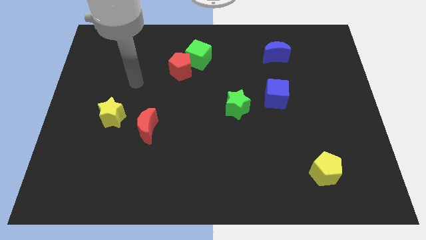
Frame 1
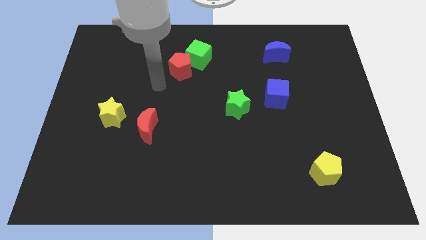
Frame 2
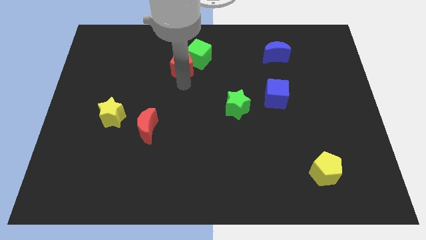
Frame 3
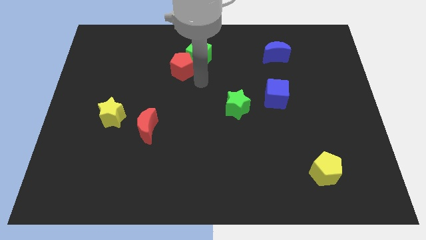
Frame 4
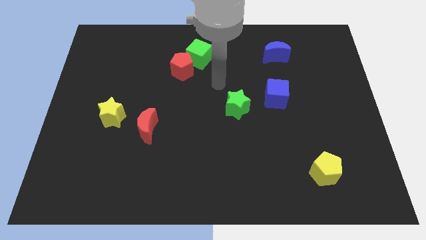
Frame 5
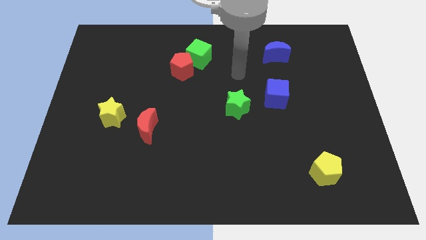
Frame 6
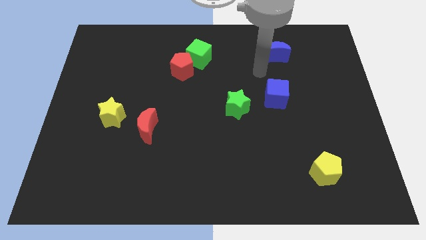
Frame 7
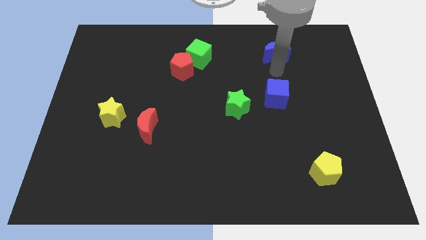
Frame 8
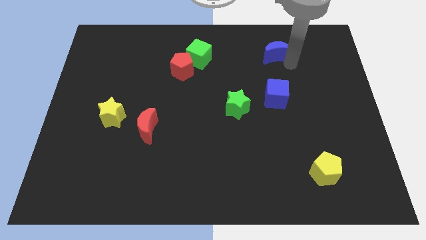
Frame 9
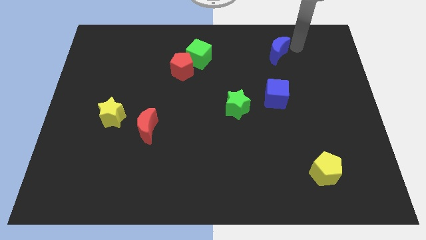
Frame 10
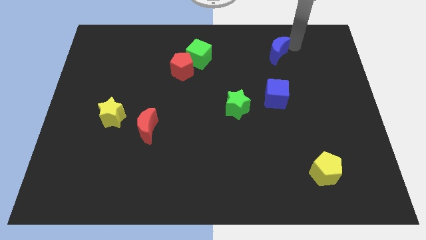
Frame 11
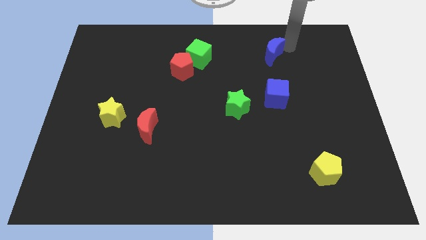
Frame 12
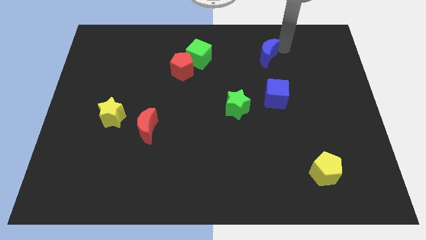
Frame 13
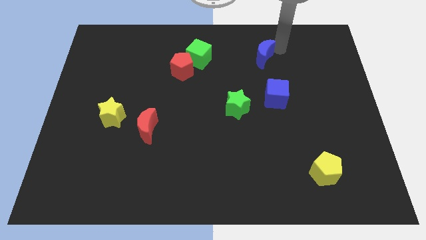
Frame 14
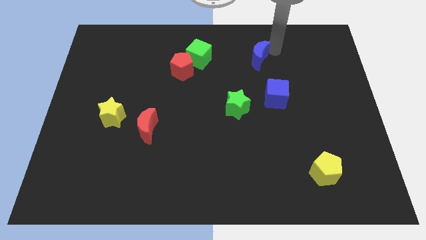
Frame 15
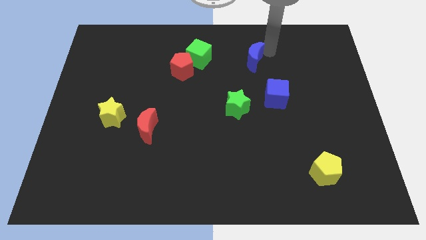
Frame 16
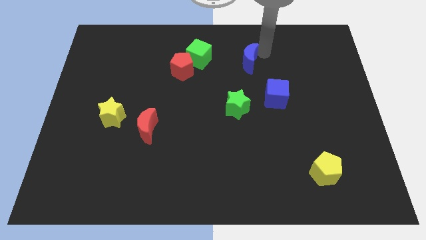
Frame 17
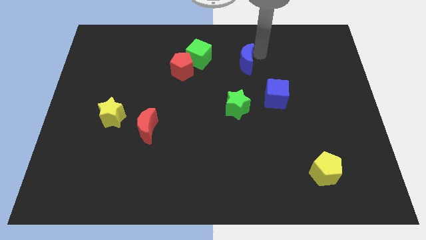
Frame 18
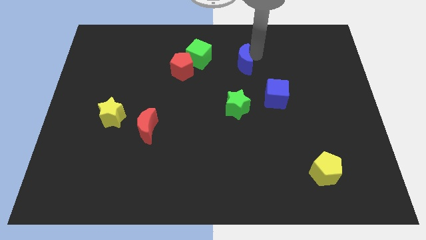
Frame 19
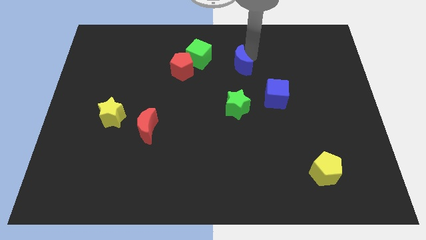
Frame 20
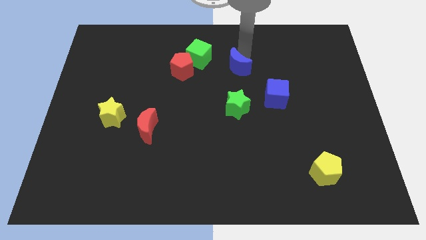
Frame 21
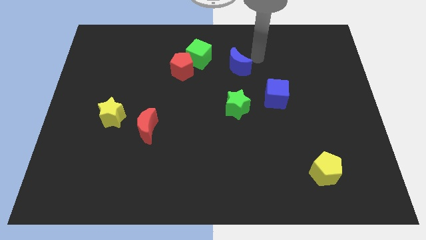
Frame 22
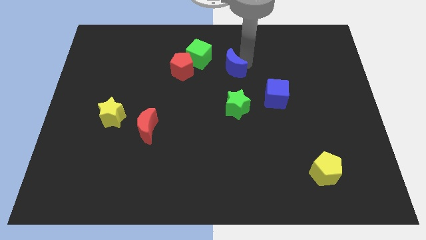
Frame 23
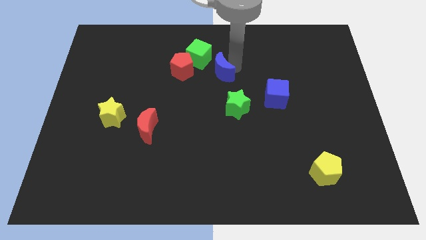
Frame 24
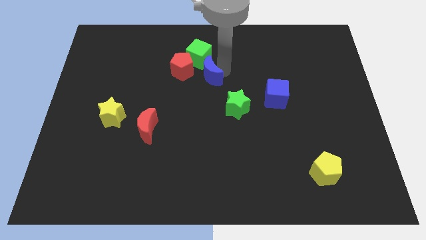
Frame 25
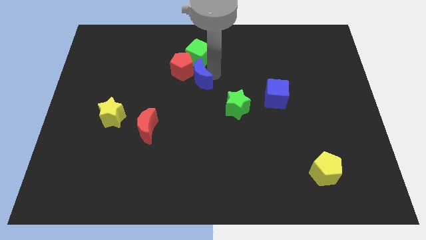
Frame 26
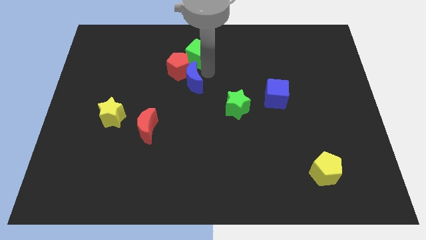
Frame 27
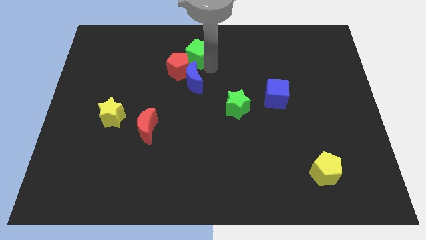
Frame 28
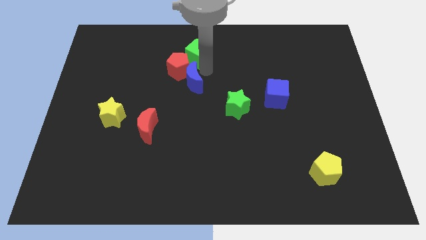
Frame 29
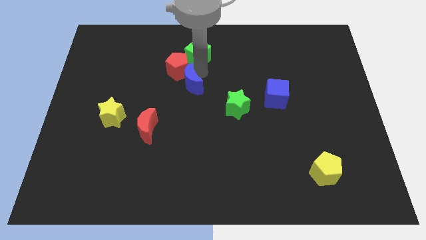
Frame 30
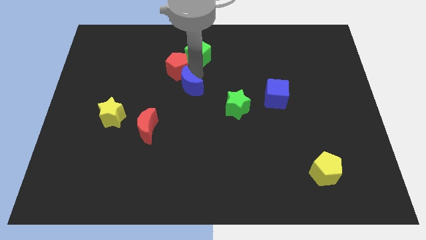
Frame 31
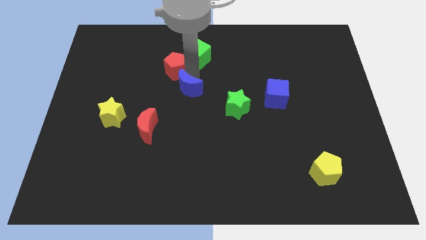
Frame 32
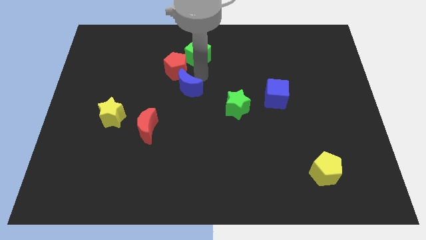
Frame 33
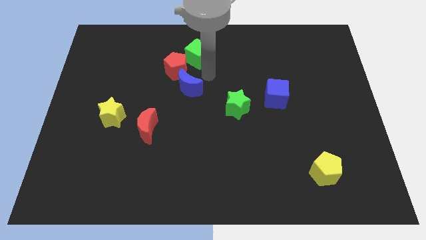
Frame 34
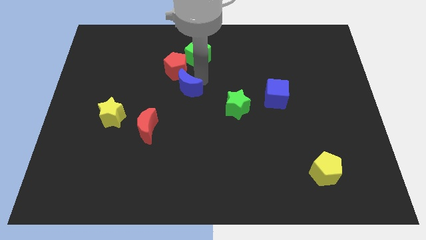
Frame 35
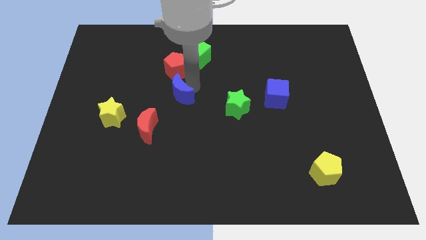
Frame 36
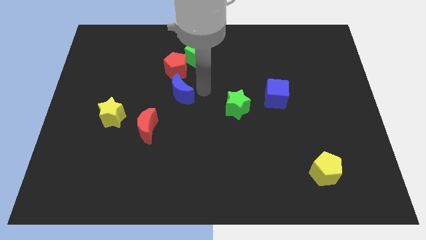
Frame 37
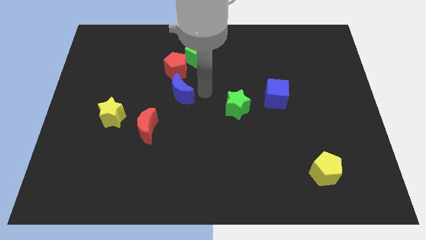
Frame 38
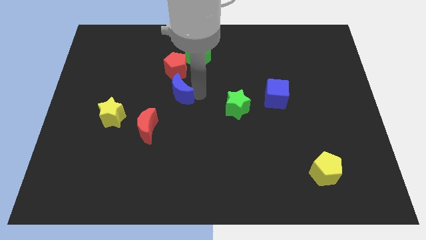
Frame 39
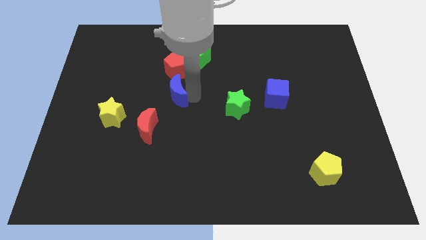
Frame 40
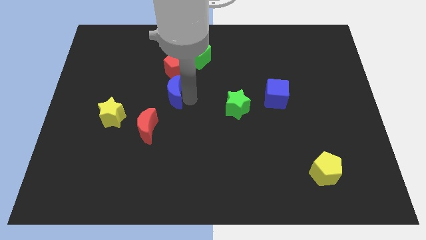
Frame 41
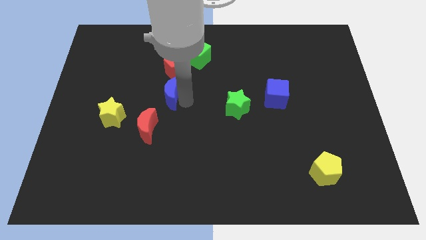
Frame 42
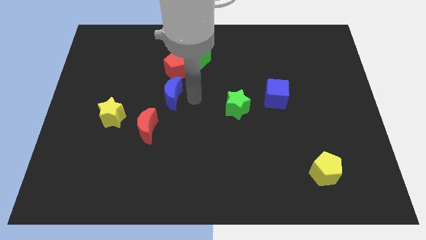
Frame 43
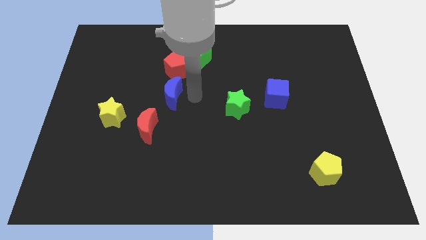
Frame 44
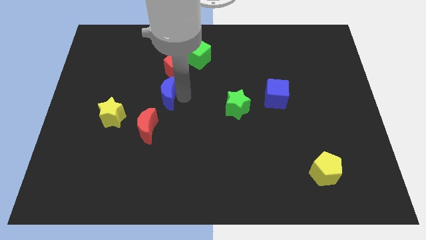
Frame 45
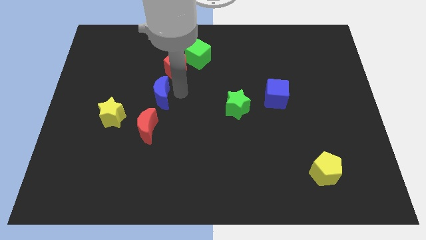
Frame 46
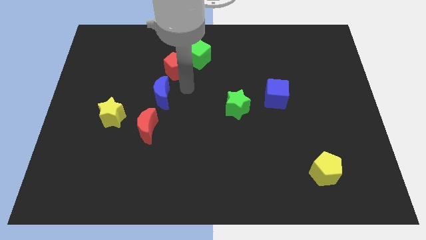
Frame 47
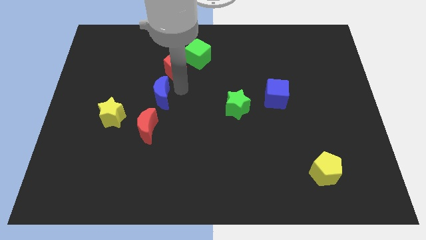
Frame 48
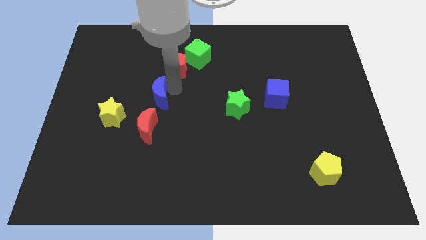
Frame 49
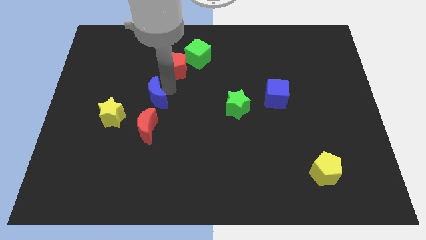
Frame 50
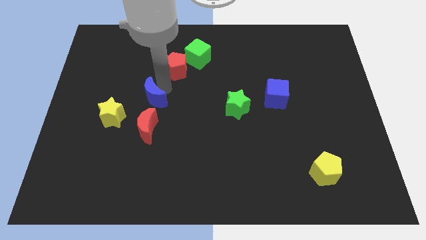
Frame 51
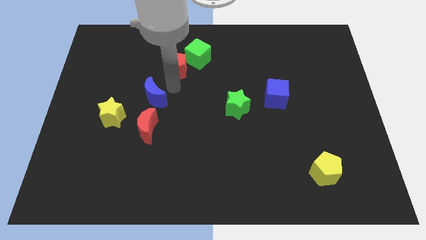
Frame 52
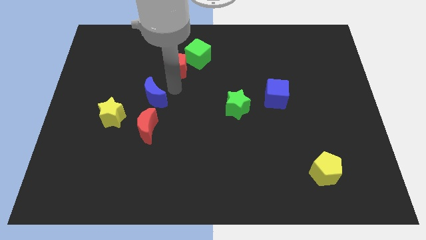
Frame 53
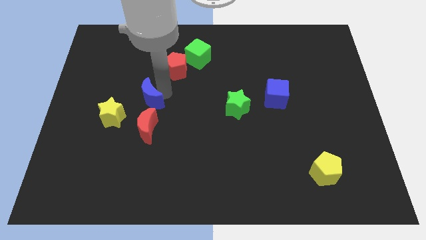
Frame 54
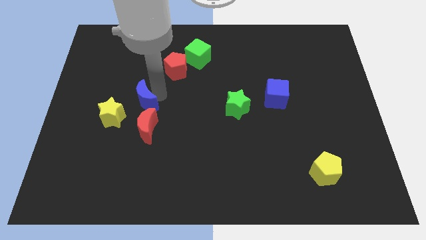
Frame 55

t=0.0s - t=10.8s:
put the blue moon diagonally up and to the left of the red moon

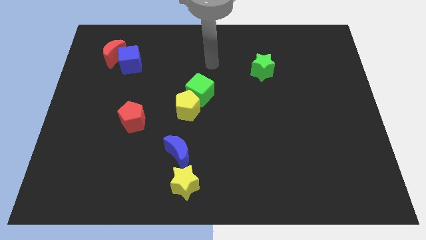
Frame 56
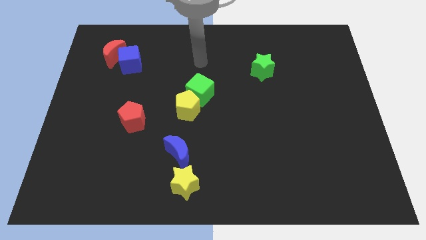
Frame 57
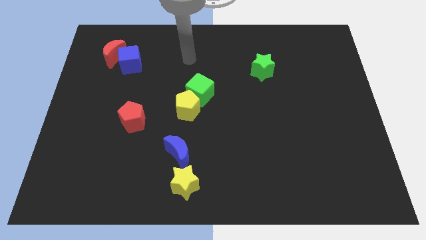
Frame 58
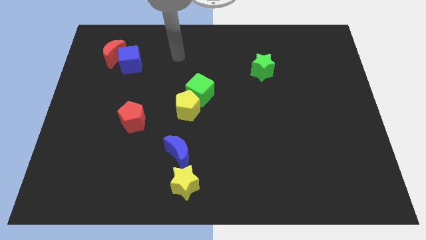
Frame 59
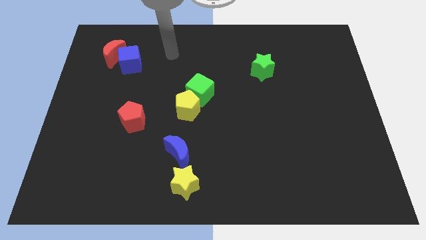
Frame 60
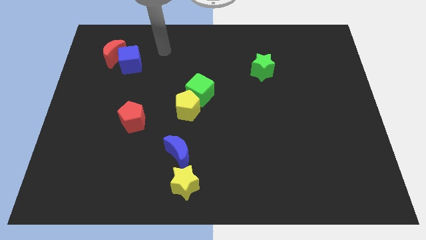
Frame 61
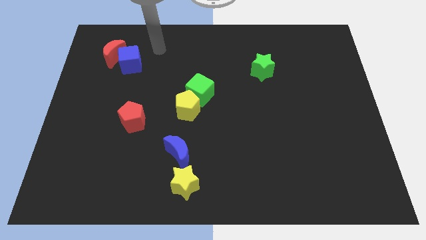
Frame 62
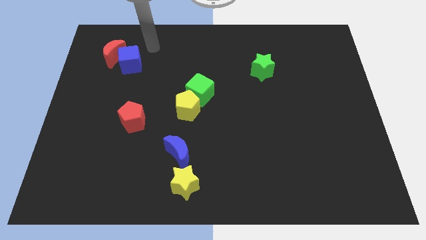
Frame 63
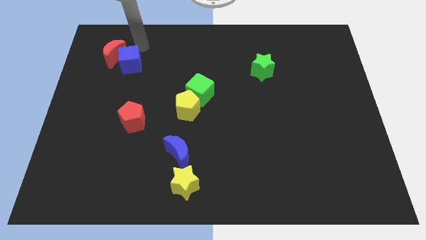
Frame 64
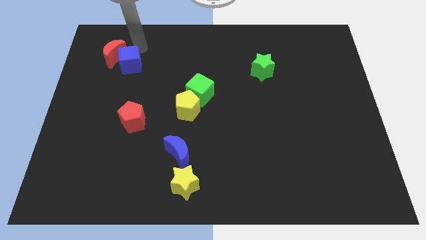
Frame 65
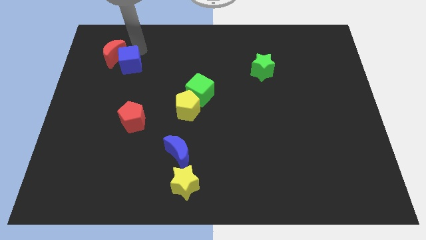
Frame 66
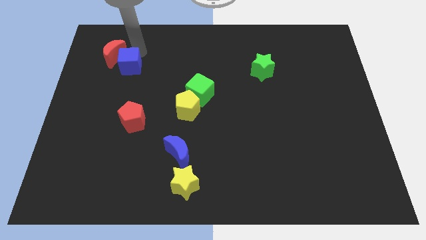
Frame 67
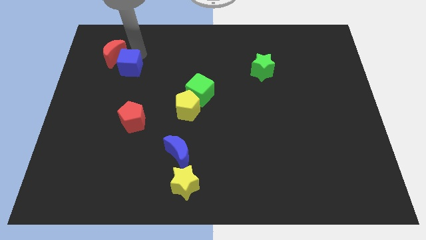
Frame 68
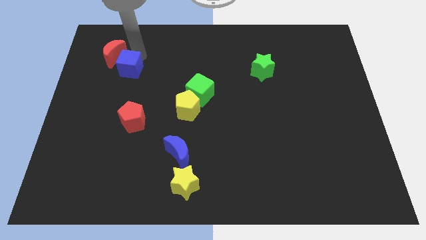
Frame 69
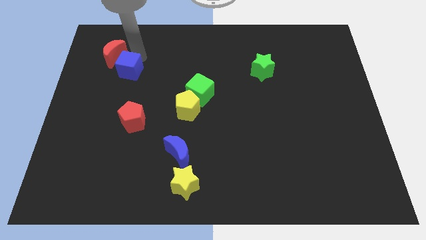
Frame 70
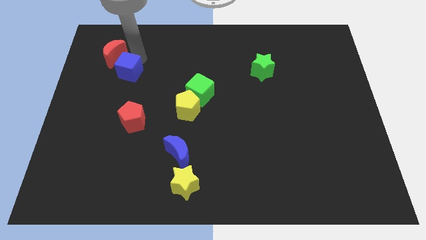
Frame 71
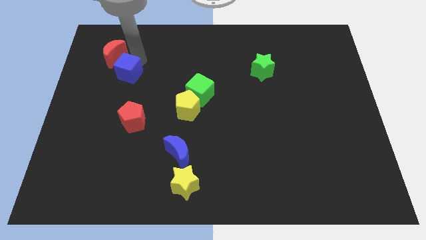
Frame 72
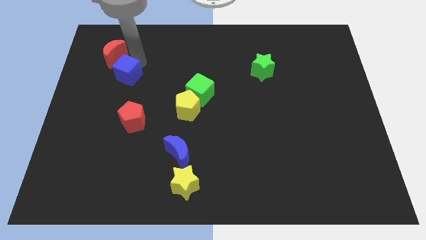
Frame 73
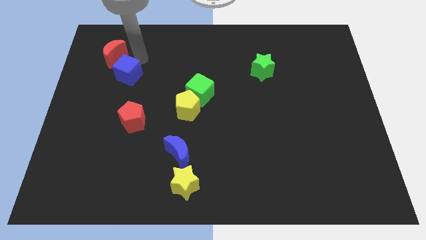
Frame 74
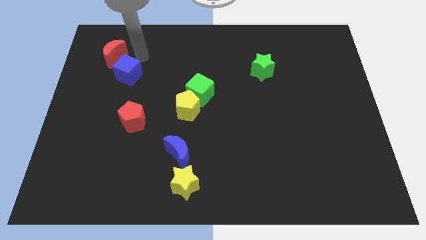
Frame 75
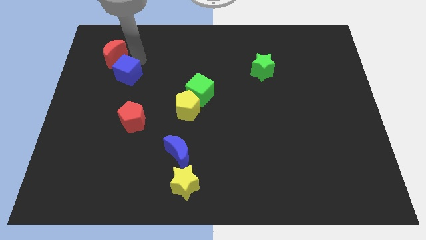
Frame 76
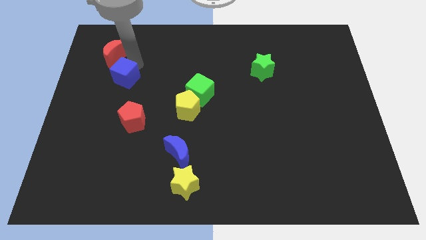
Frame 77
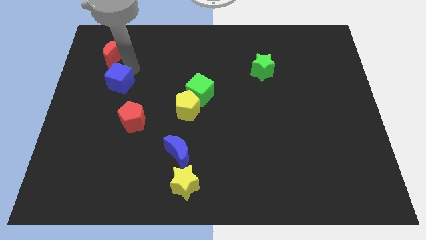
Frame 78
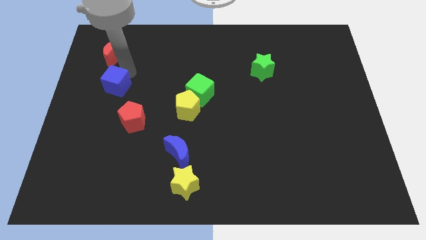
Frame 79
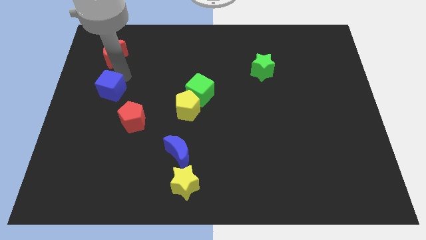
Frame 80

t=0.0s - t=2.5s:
push the blue cube diagonally up and to the left of the red pentagon
